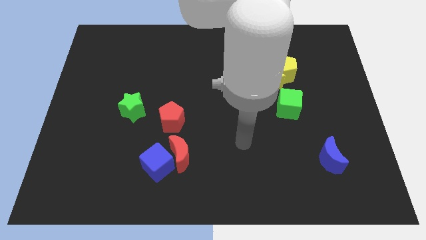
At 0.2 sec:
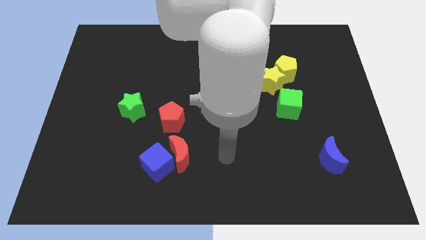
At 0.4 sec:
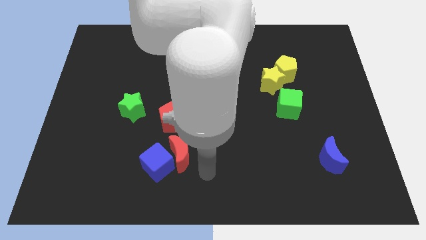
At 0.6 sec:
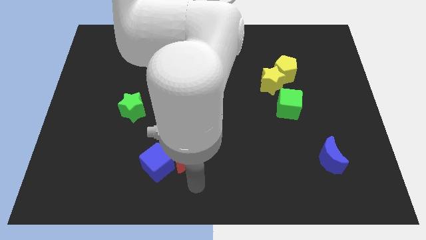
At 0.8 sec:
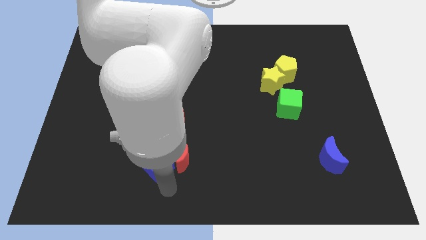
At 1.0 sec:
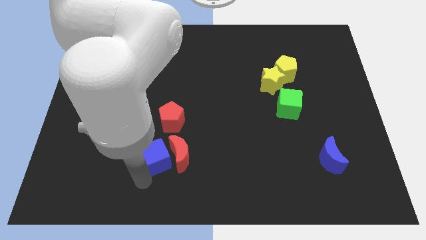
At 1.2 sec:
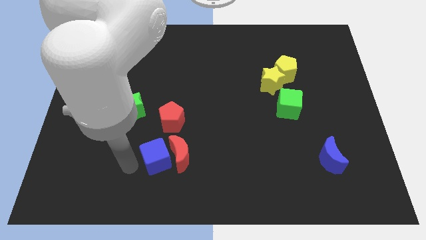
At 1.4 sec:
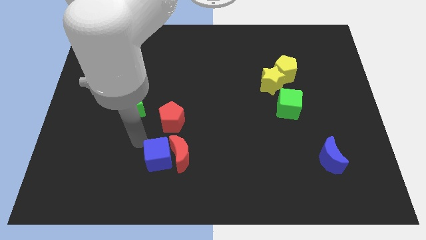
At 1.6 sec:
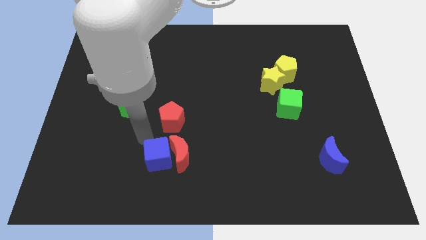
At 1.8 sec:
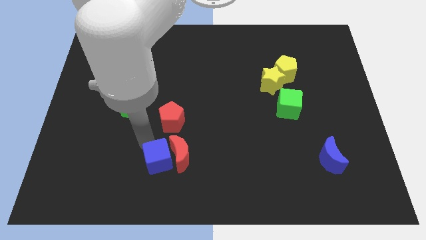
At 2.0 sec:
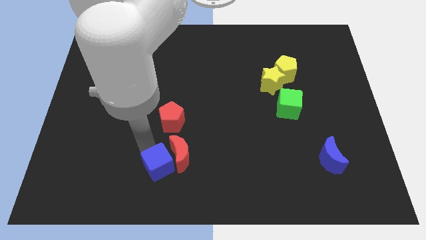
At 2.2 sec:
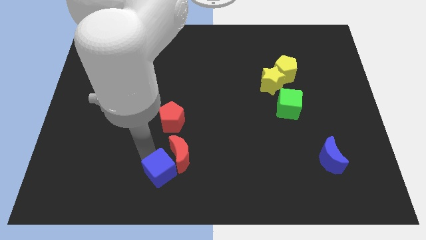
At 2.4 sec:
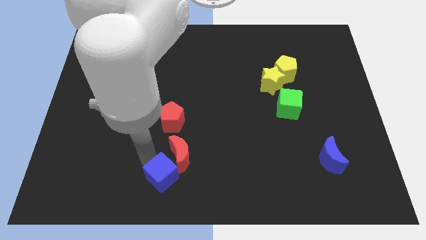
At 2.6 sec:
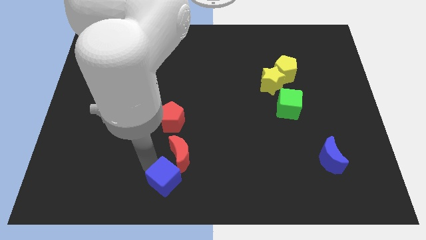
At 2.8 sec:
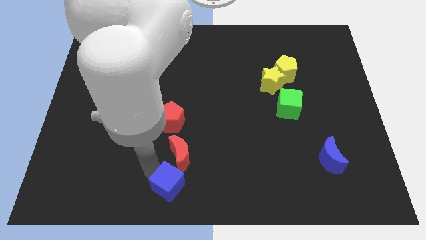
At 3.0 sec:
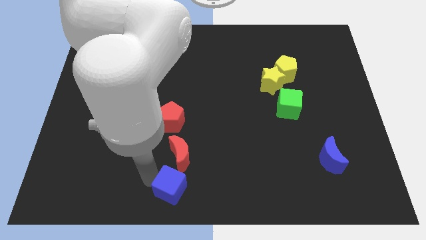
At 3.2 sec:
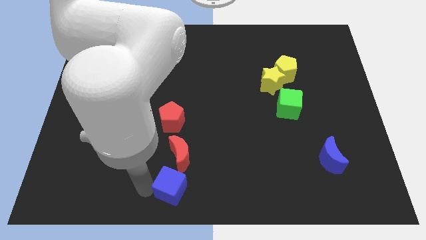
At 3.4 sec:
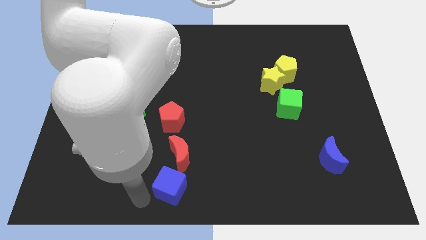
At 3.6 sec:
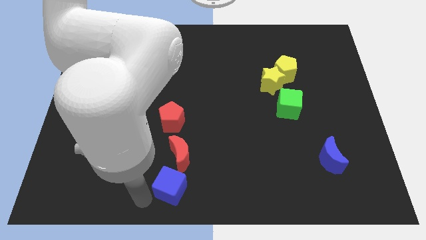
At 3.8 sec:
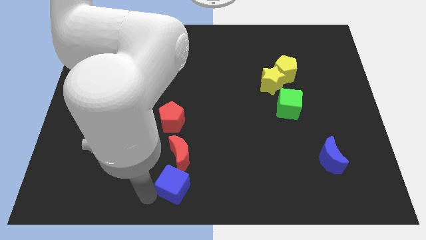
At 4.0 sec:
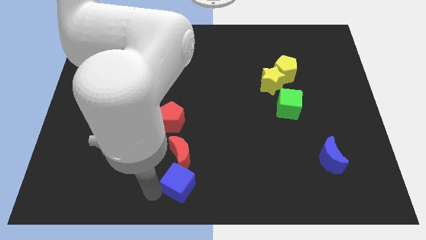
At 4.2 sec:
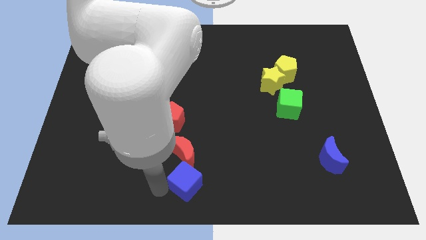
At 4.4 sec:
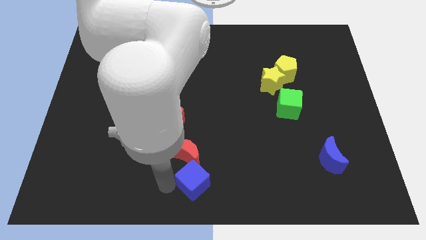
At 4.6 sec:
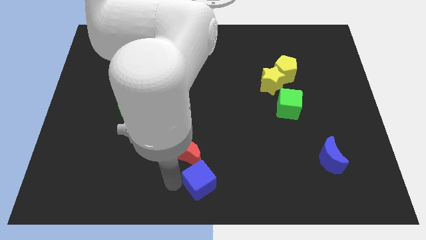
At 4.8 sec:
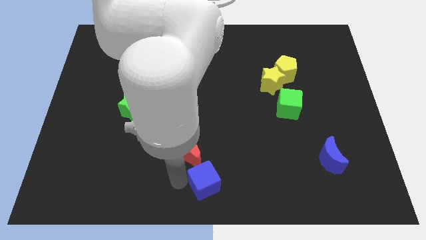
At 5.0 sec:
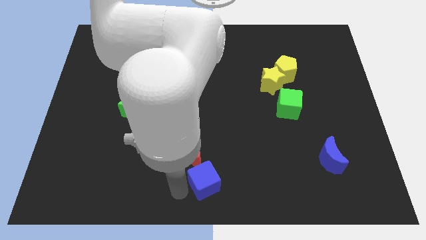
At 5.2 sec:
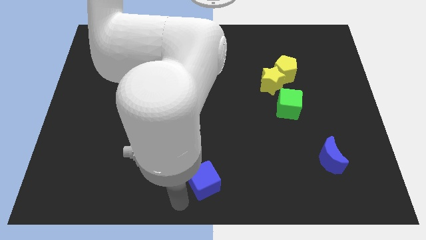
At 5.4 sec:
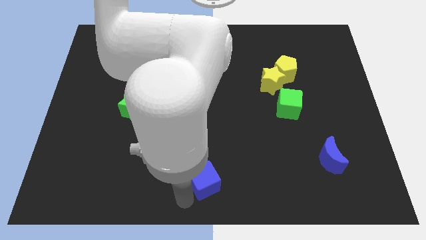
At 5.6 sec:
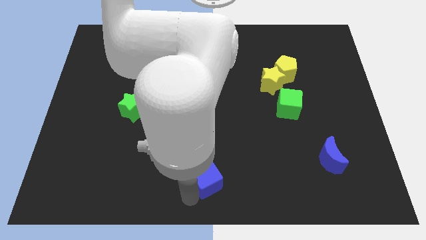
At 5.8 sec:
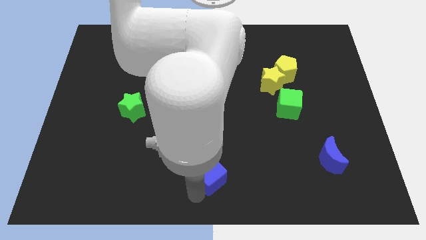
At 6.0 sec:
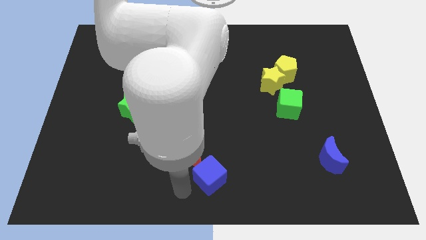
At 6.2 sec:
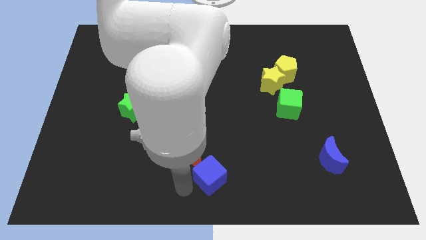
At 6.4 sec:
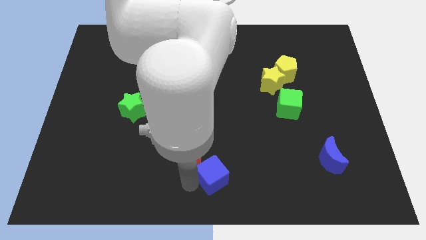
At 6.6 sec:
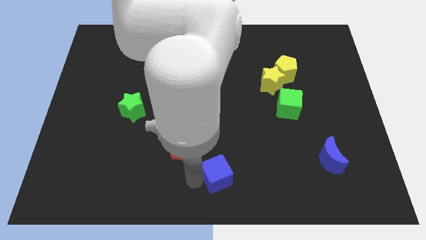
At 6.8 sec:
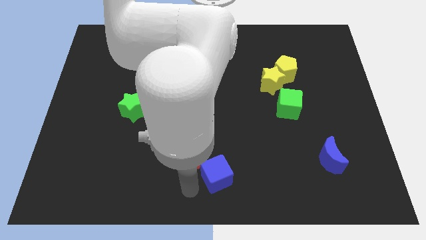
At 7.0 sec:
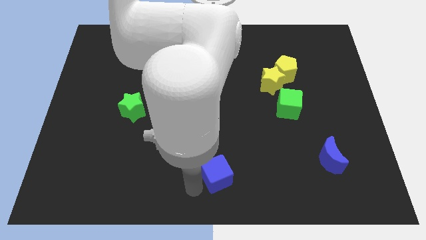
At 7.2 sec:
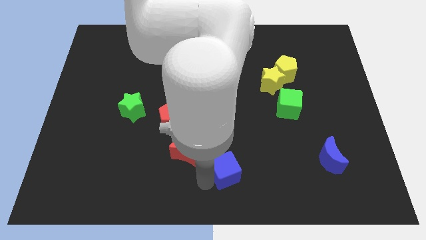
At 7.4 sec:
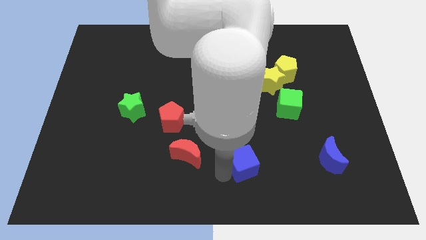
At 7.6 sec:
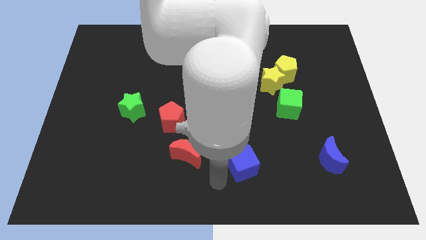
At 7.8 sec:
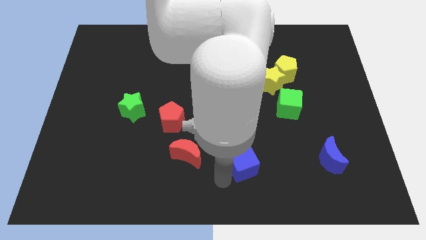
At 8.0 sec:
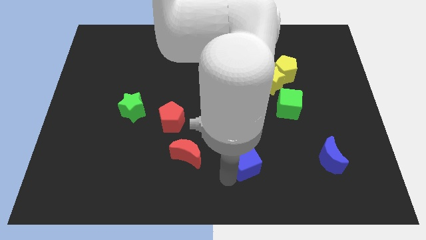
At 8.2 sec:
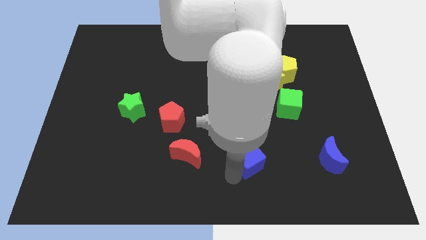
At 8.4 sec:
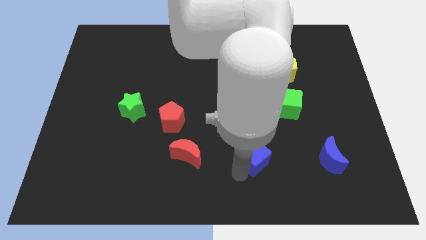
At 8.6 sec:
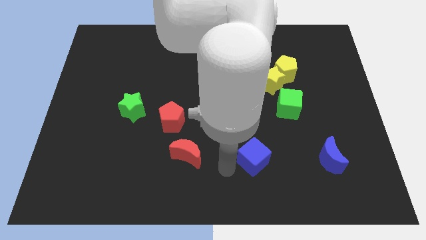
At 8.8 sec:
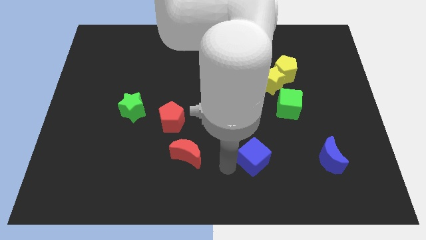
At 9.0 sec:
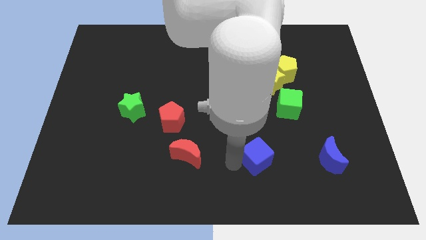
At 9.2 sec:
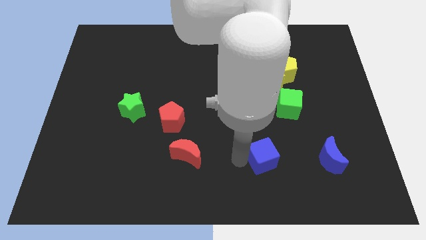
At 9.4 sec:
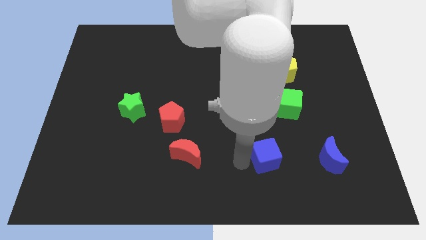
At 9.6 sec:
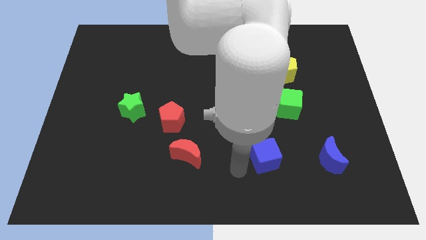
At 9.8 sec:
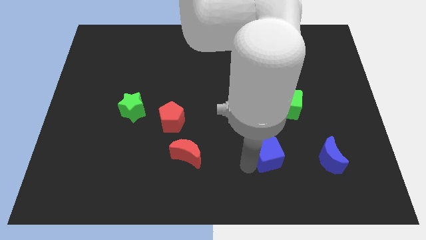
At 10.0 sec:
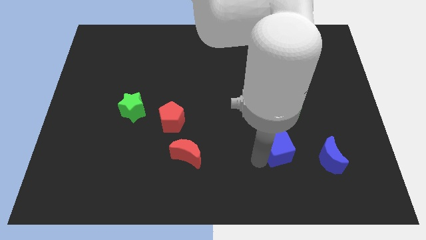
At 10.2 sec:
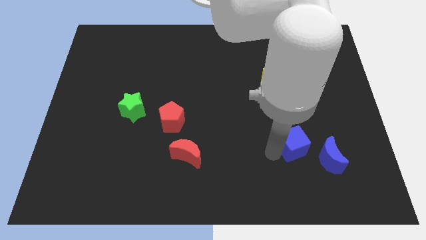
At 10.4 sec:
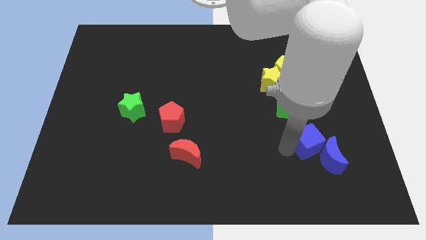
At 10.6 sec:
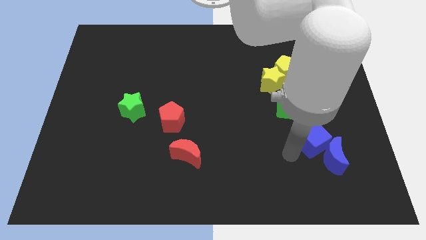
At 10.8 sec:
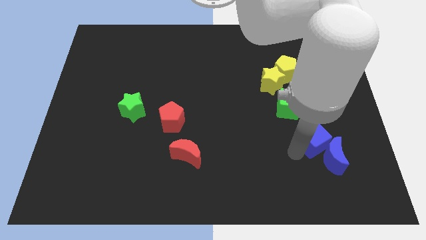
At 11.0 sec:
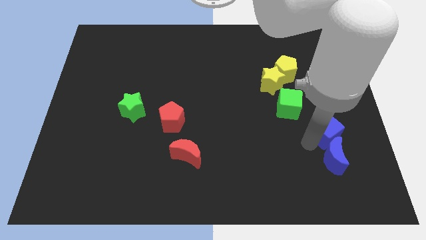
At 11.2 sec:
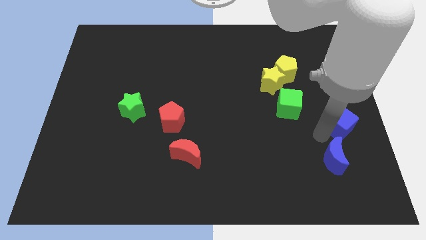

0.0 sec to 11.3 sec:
push the blue cube to the right side of the board

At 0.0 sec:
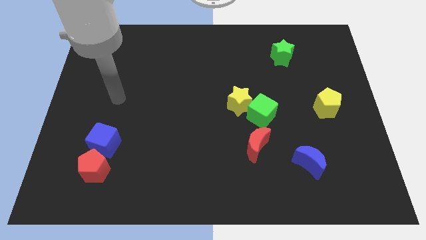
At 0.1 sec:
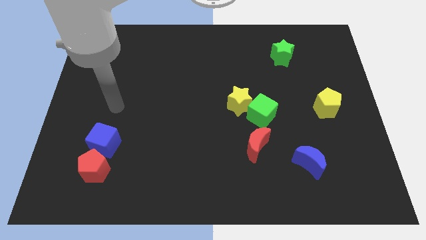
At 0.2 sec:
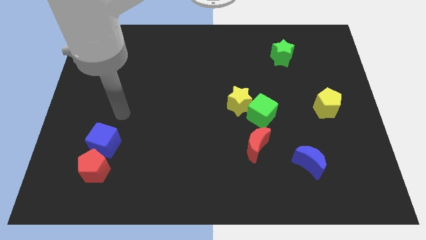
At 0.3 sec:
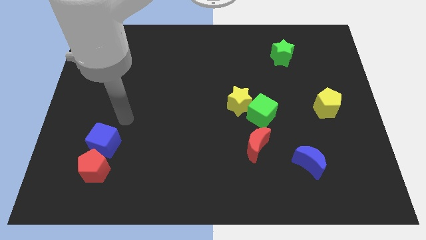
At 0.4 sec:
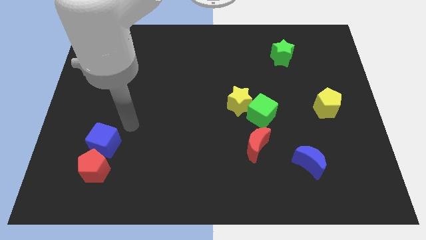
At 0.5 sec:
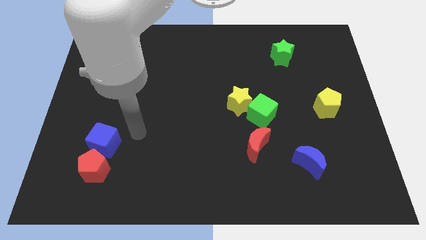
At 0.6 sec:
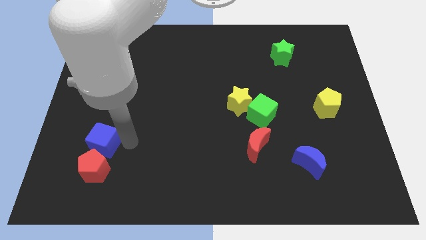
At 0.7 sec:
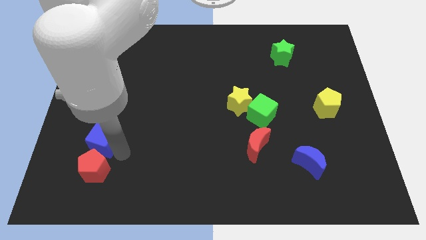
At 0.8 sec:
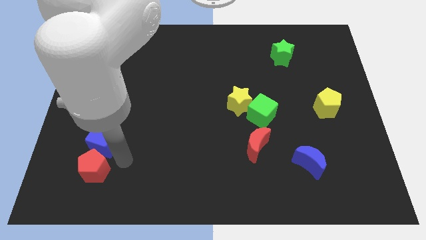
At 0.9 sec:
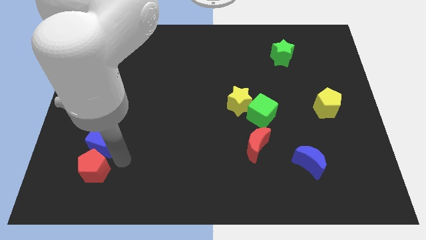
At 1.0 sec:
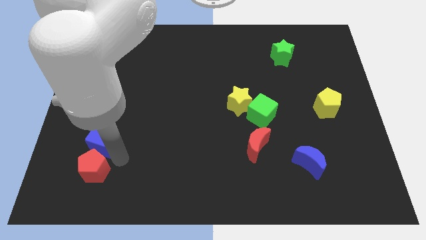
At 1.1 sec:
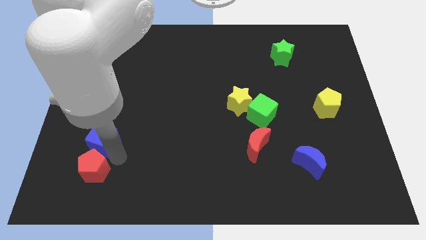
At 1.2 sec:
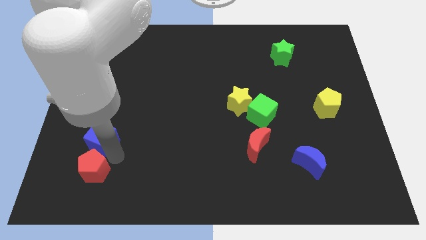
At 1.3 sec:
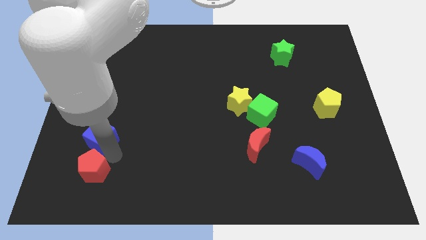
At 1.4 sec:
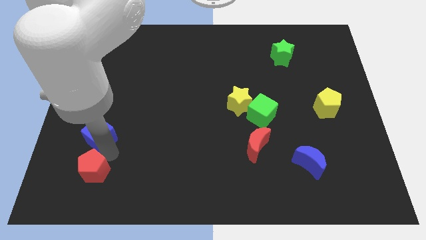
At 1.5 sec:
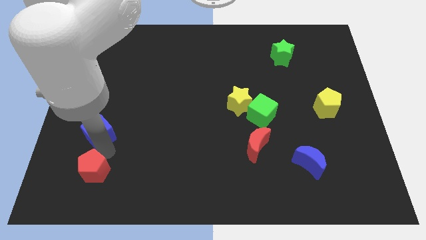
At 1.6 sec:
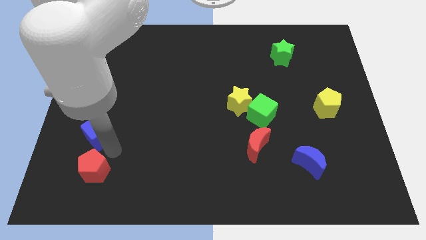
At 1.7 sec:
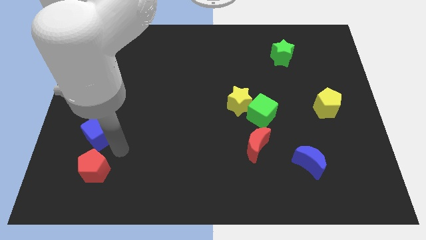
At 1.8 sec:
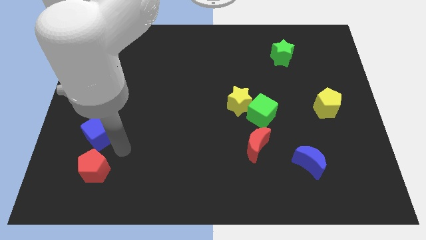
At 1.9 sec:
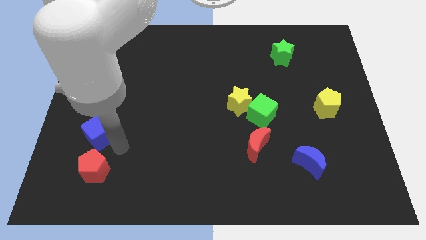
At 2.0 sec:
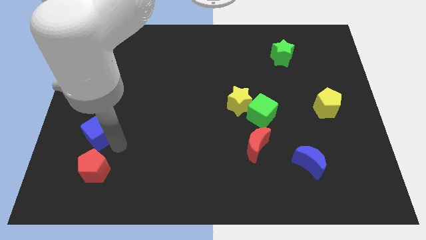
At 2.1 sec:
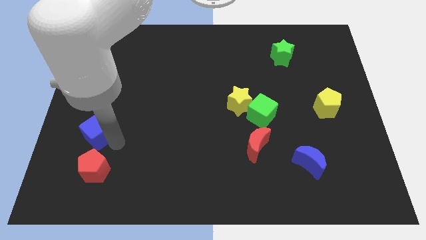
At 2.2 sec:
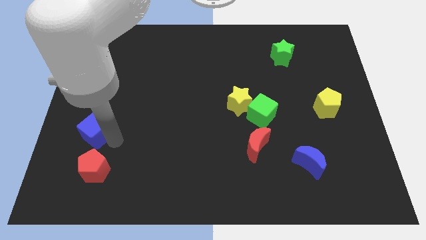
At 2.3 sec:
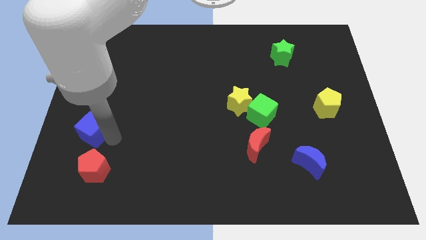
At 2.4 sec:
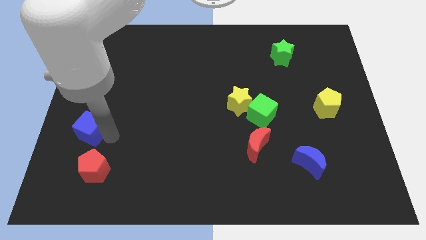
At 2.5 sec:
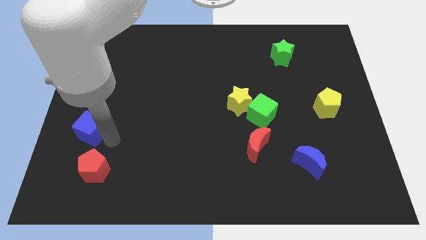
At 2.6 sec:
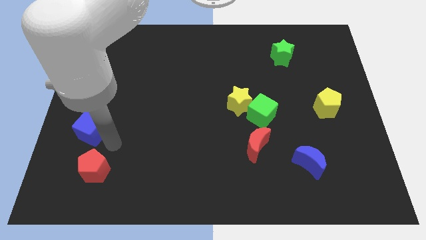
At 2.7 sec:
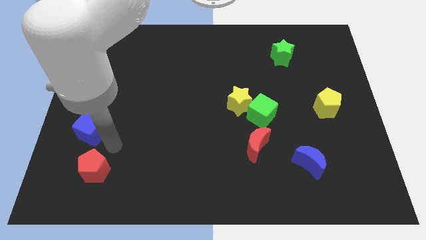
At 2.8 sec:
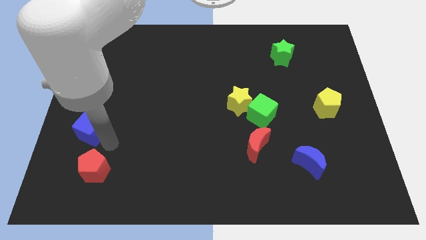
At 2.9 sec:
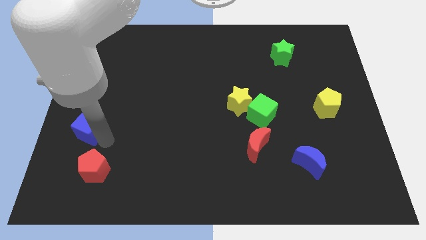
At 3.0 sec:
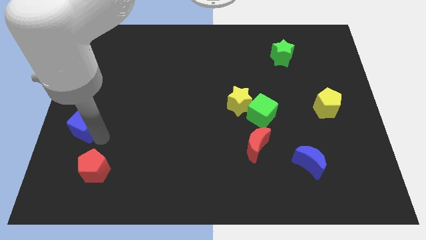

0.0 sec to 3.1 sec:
push the blue cube to the center left
